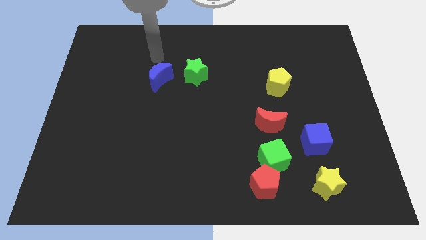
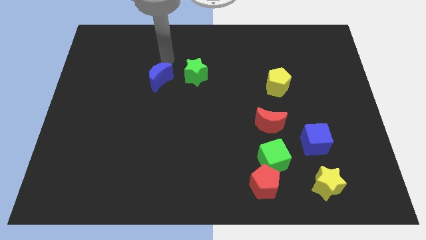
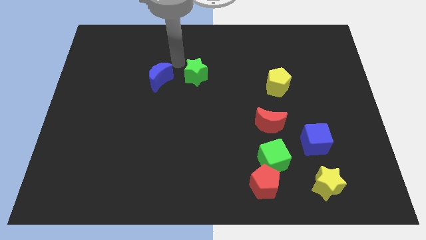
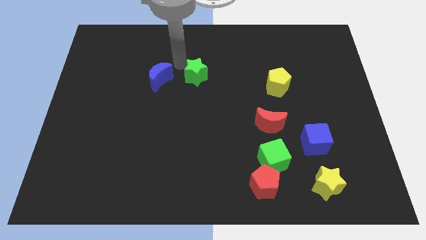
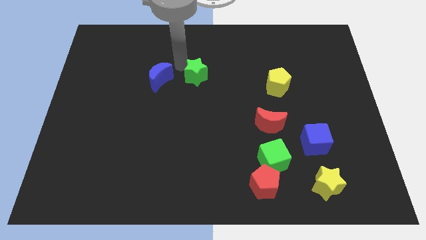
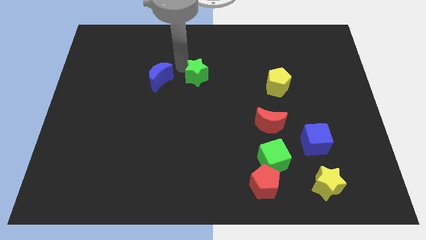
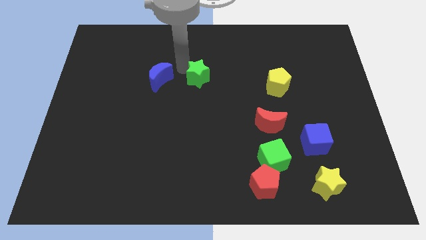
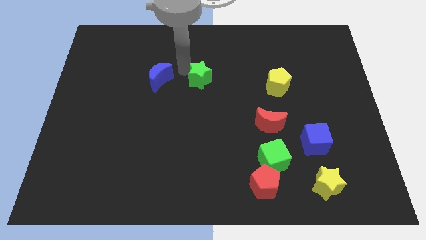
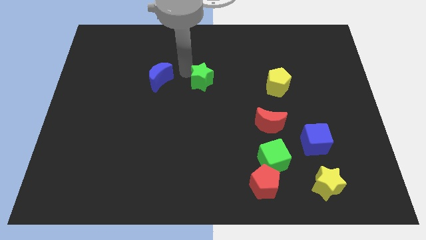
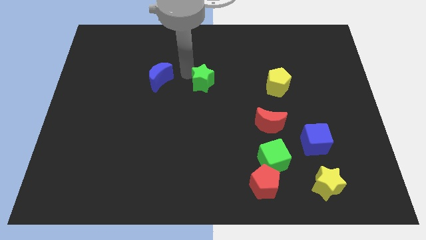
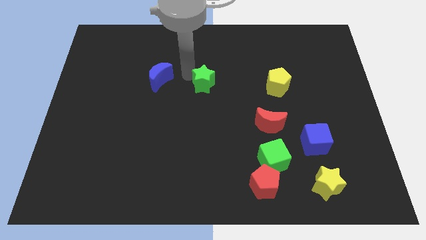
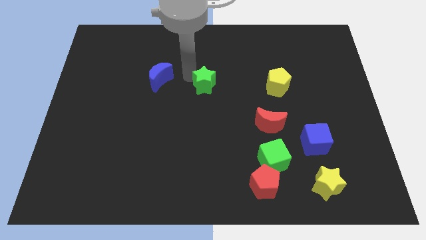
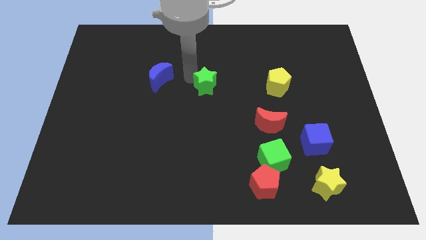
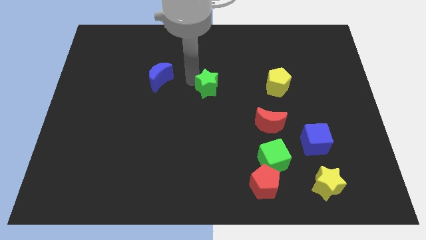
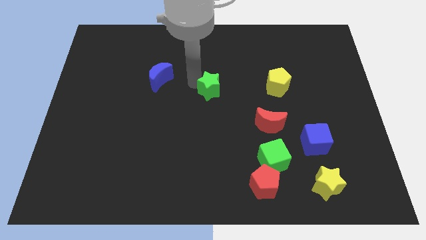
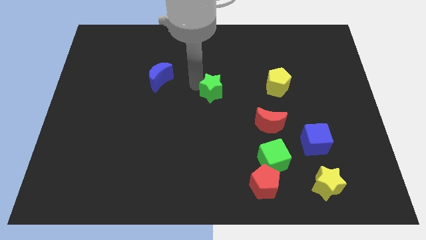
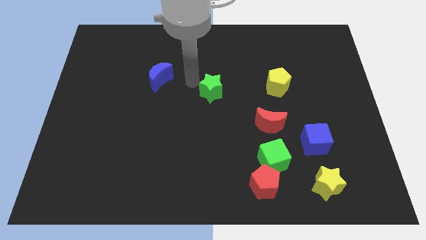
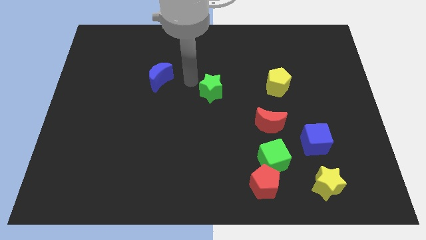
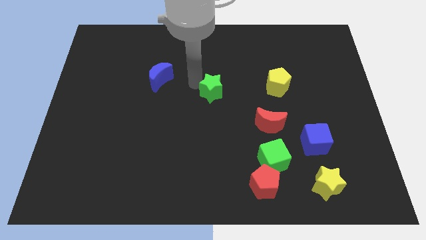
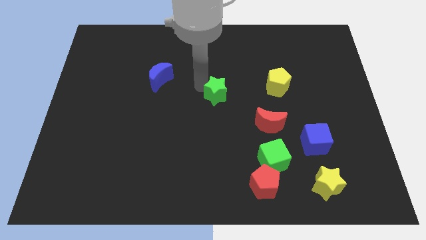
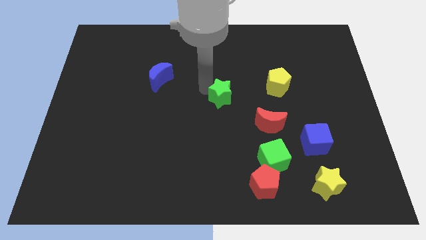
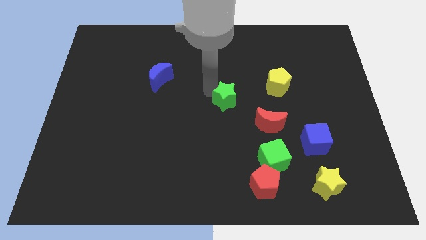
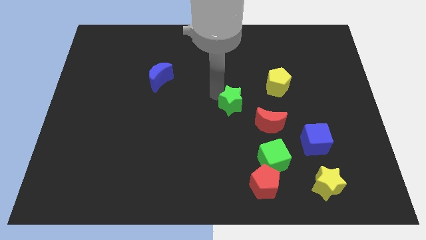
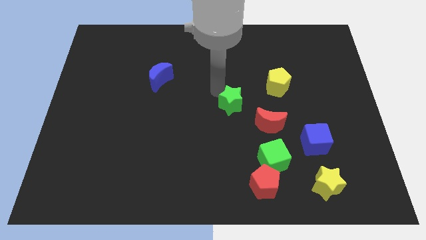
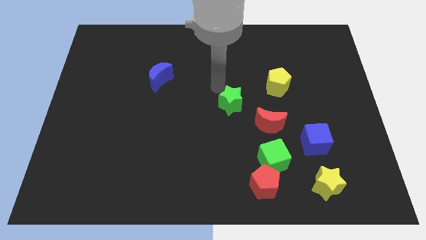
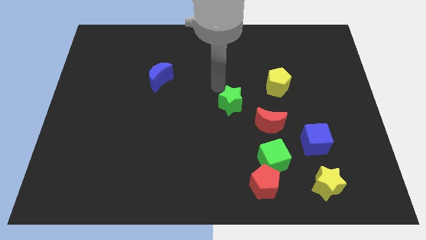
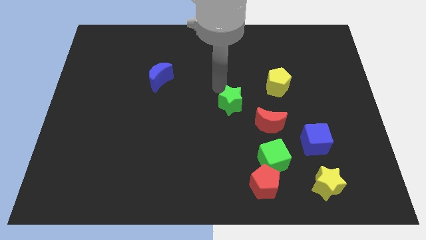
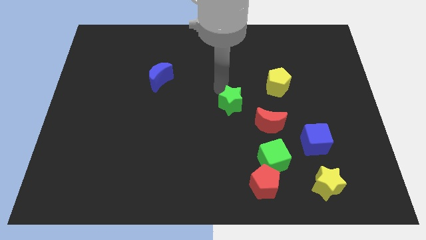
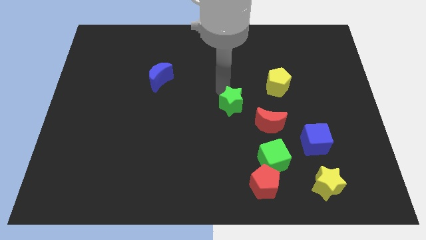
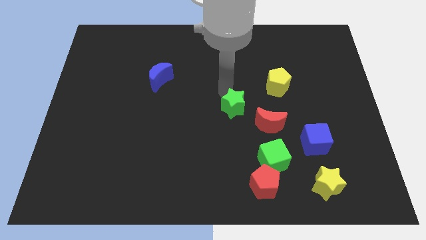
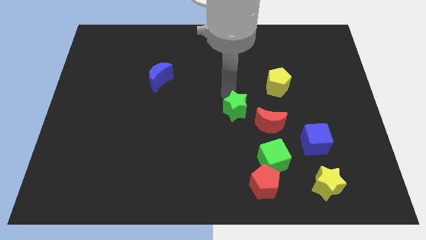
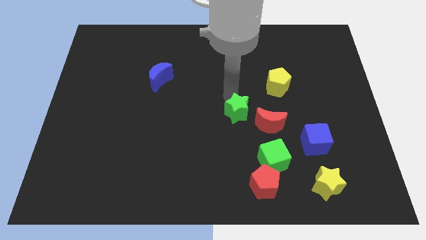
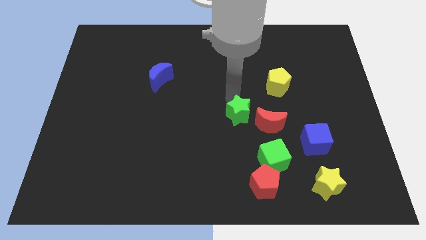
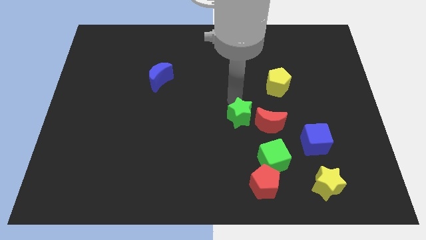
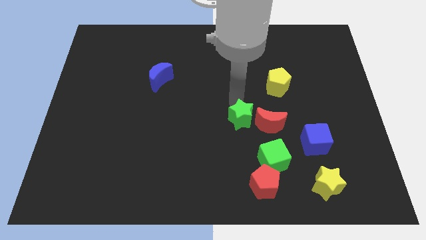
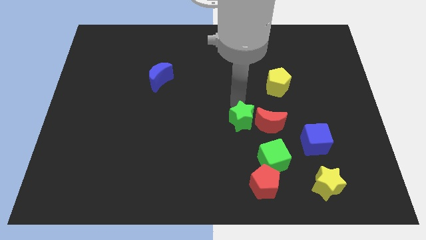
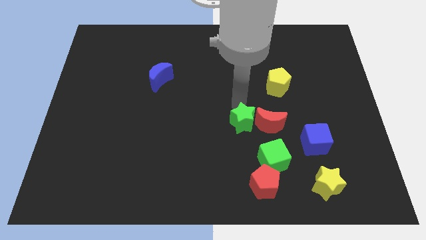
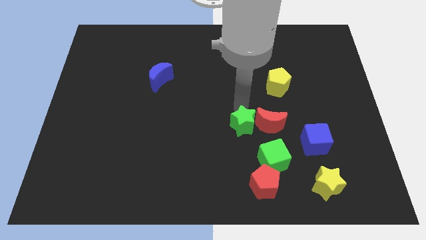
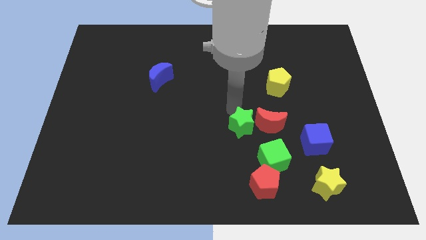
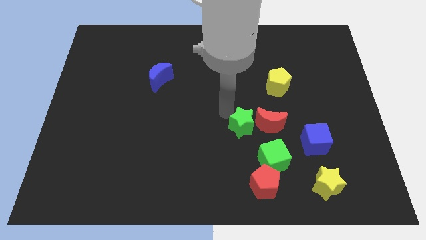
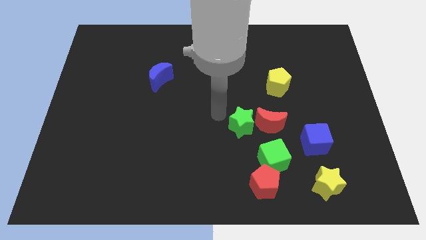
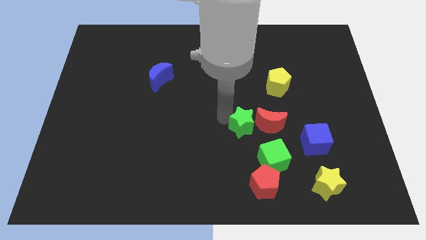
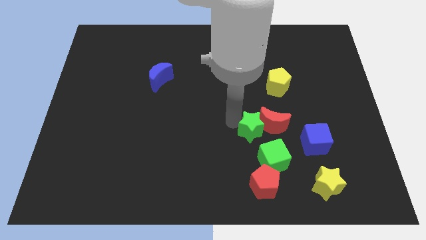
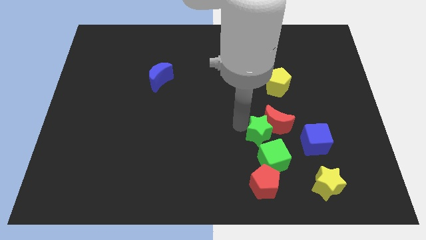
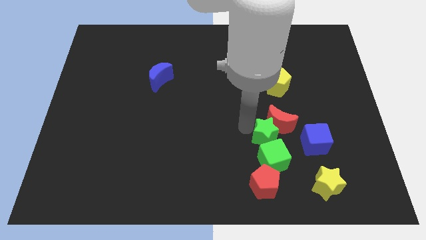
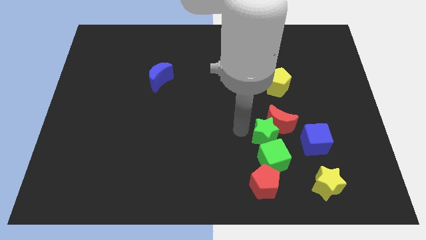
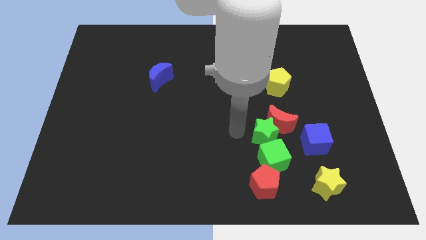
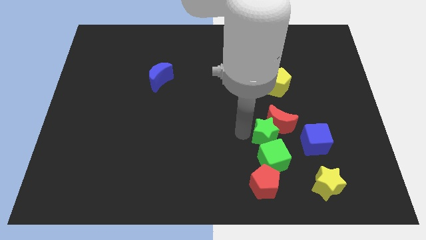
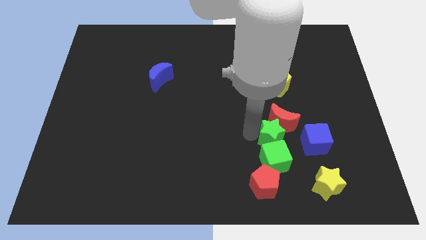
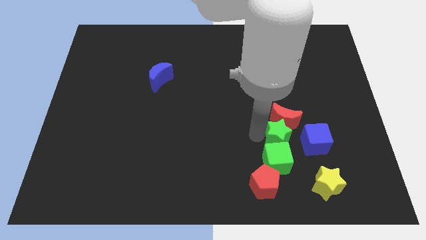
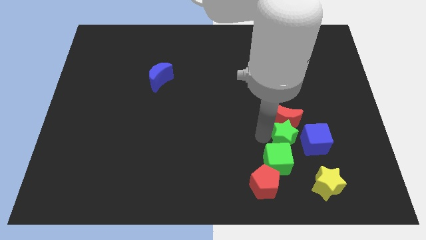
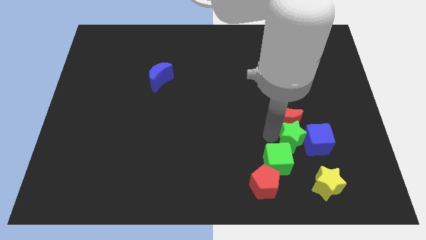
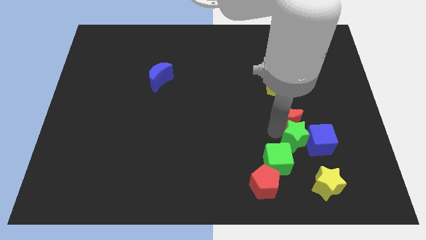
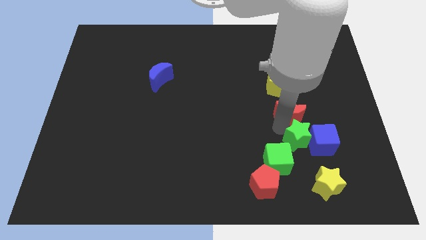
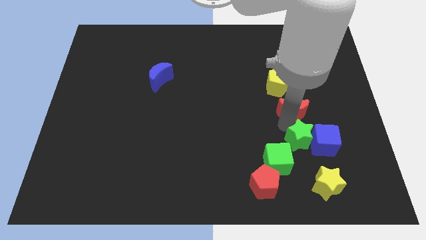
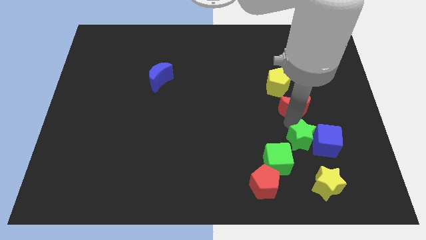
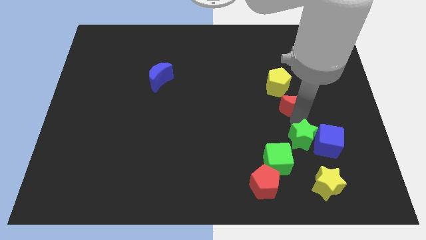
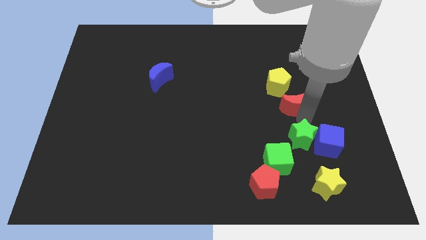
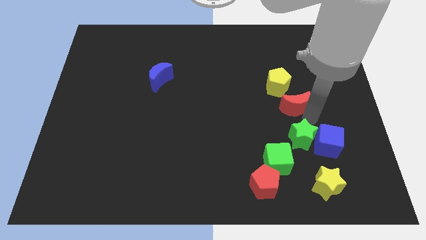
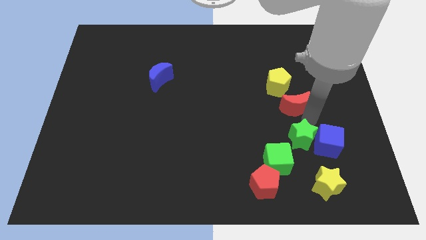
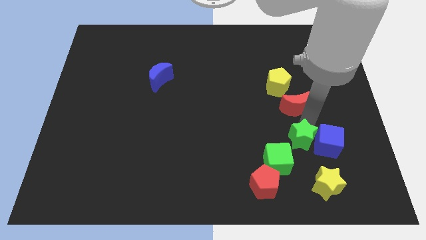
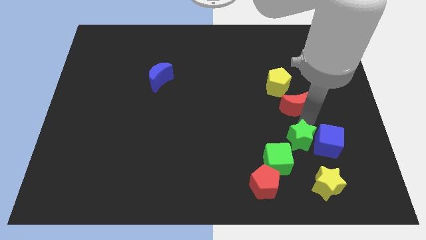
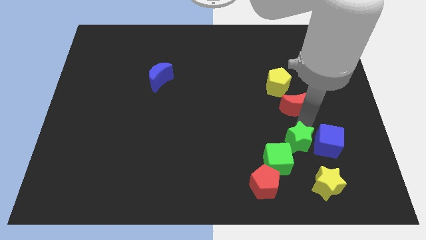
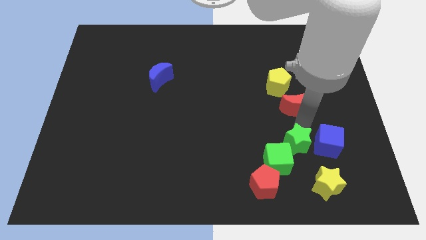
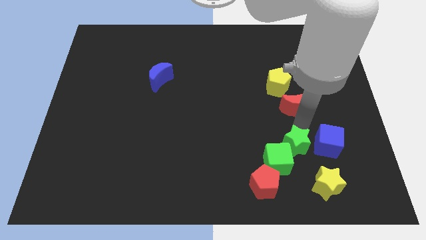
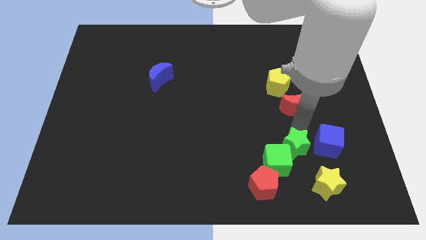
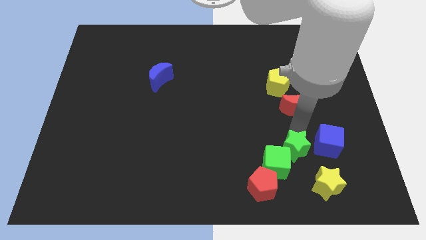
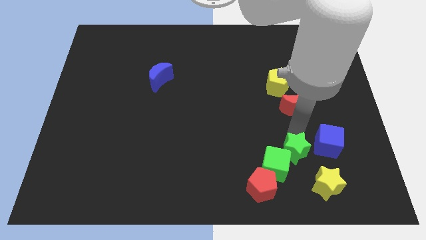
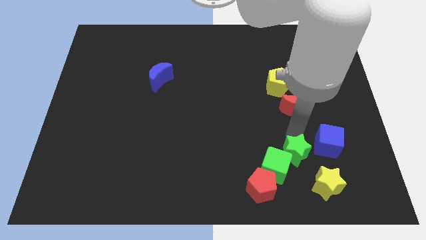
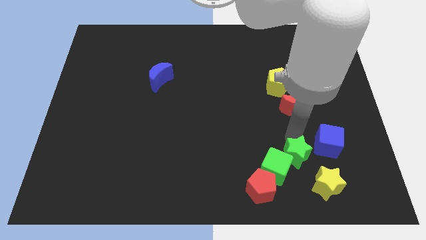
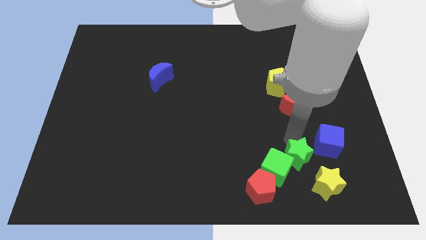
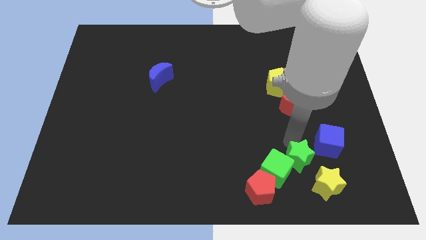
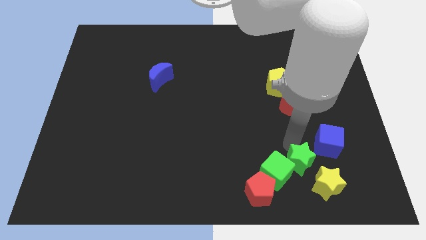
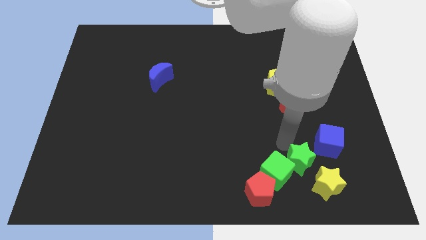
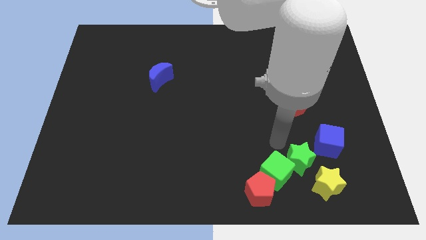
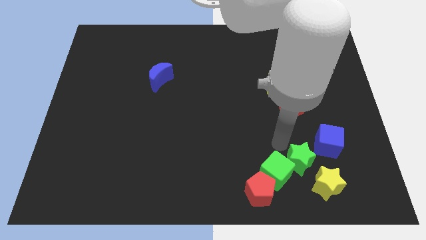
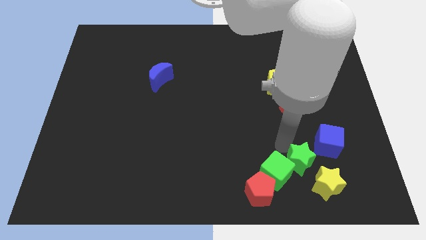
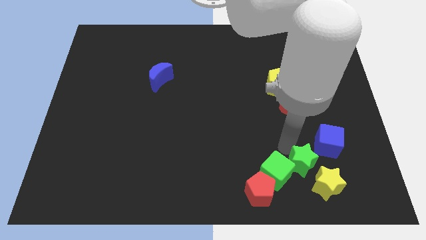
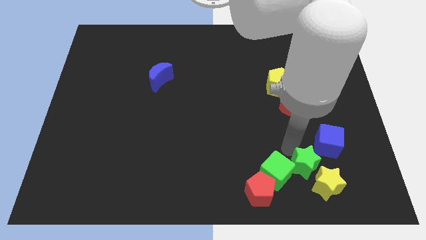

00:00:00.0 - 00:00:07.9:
move the green star to the yellow star
